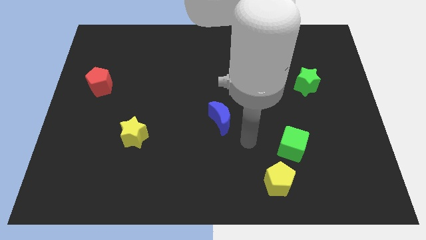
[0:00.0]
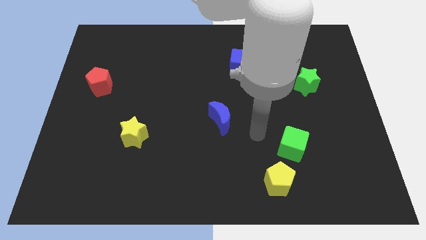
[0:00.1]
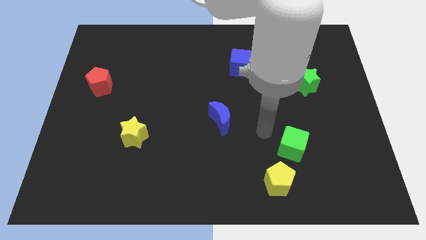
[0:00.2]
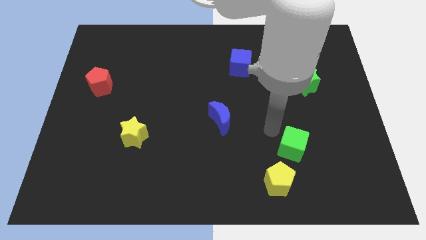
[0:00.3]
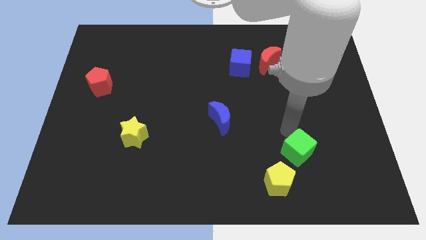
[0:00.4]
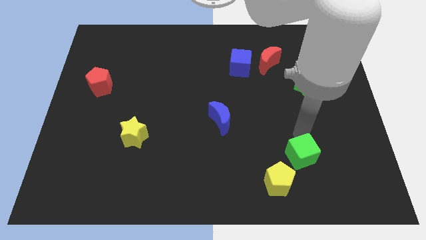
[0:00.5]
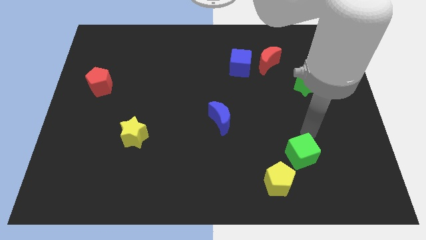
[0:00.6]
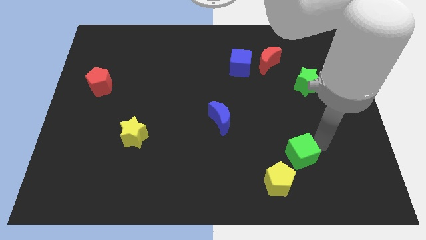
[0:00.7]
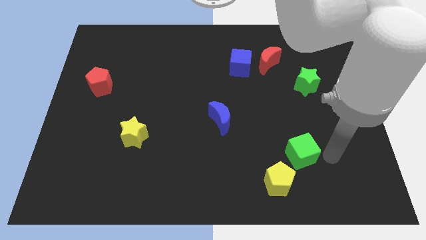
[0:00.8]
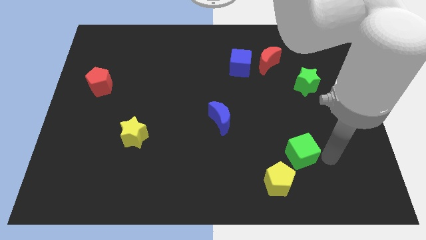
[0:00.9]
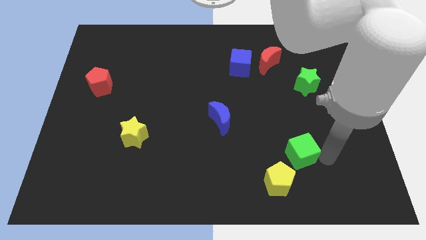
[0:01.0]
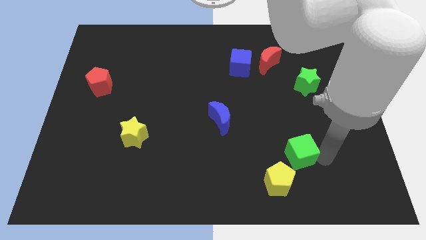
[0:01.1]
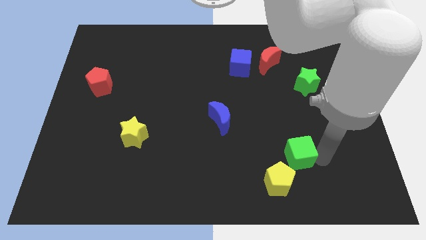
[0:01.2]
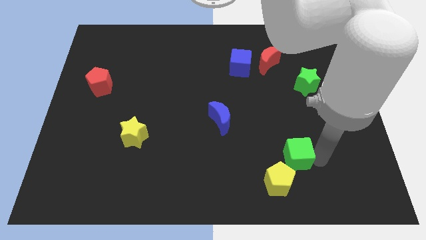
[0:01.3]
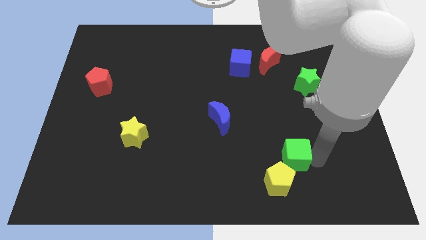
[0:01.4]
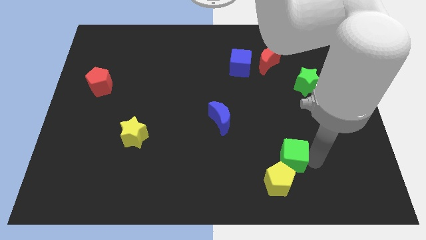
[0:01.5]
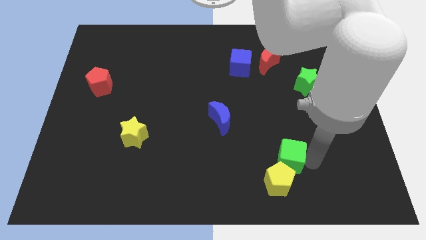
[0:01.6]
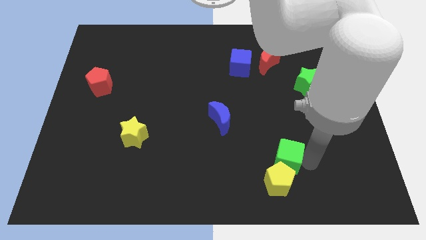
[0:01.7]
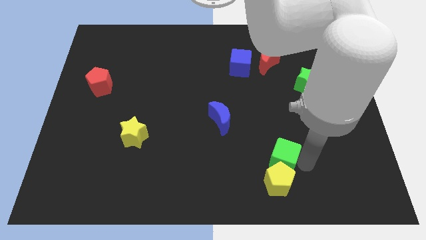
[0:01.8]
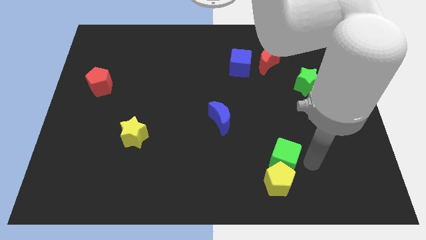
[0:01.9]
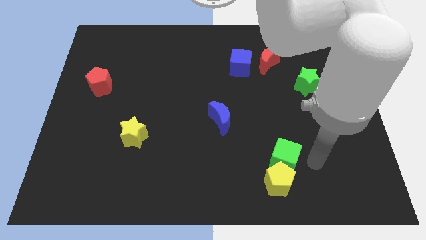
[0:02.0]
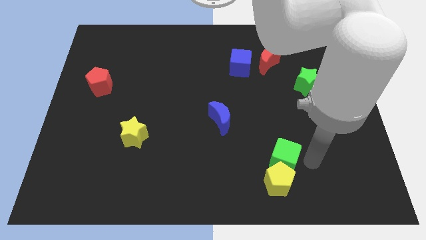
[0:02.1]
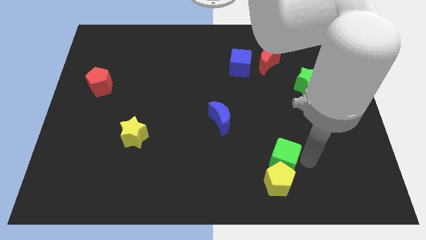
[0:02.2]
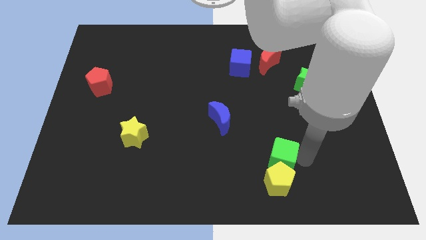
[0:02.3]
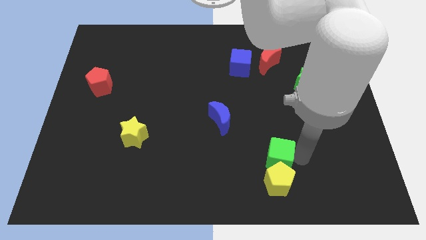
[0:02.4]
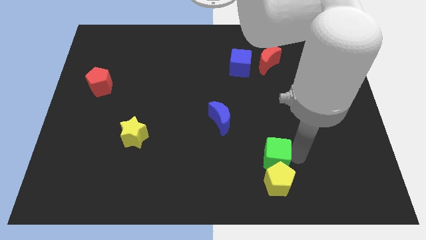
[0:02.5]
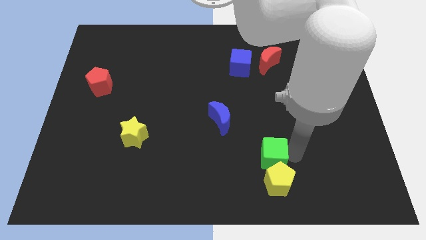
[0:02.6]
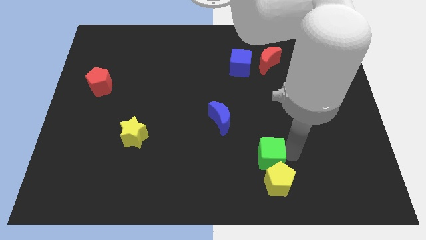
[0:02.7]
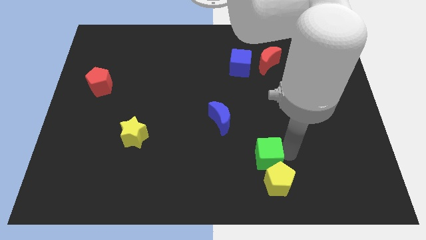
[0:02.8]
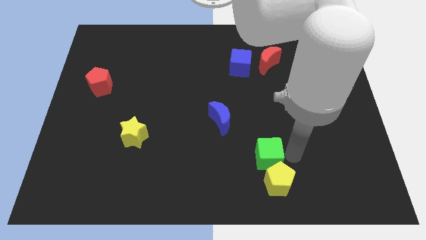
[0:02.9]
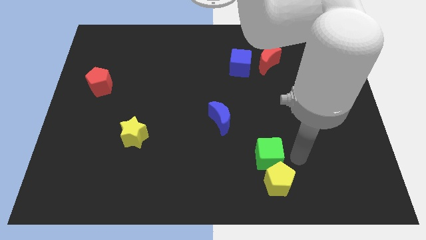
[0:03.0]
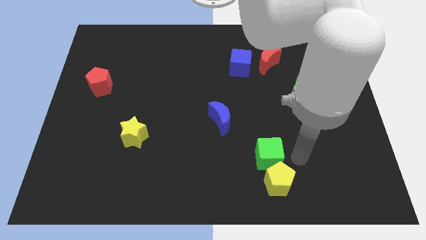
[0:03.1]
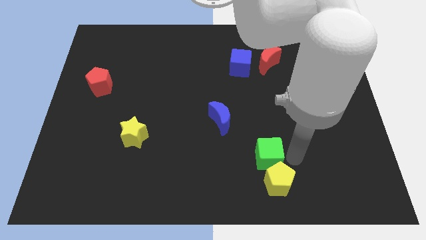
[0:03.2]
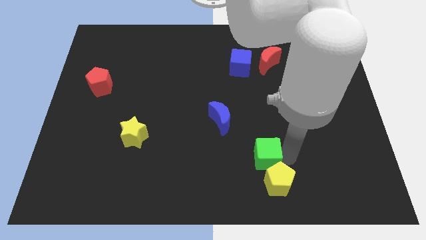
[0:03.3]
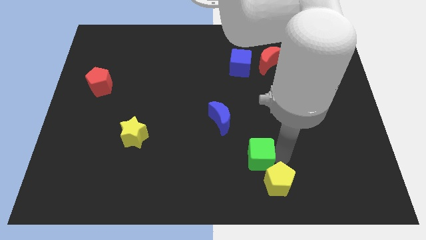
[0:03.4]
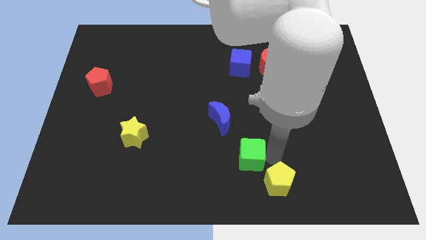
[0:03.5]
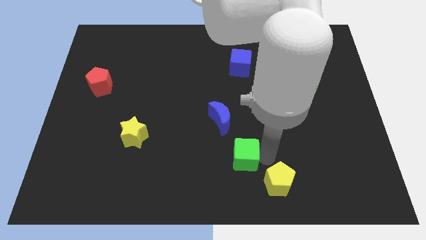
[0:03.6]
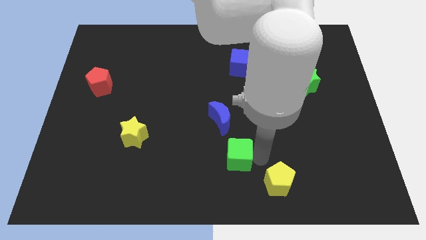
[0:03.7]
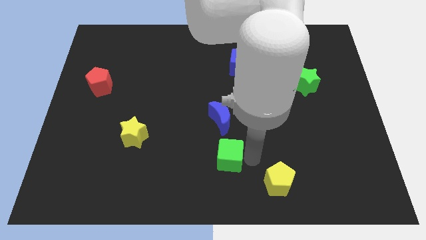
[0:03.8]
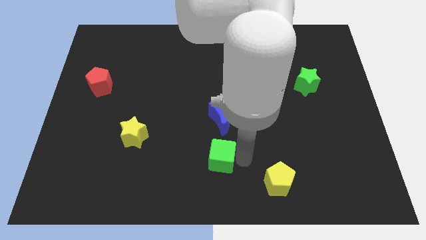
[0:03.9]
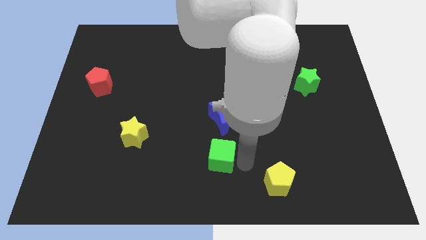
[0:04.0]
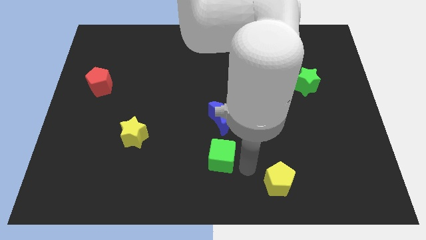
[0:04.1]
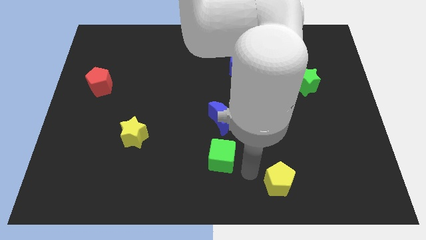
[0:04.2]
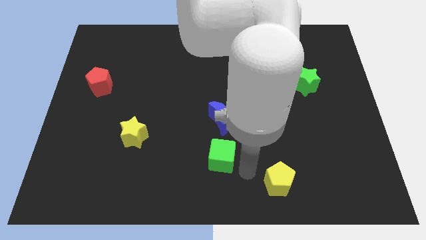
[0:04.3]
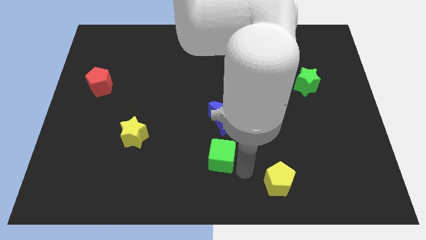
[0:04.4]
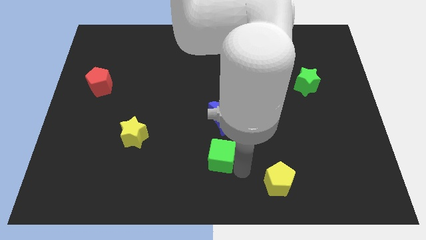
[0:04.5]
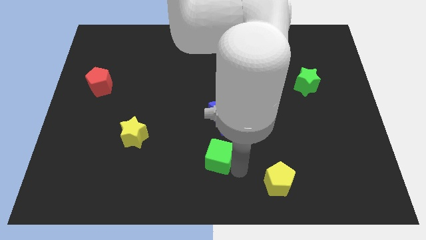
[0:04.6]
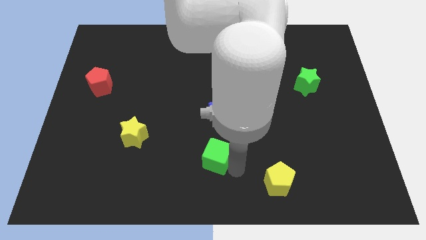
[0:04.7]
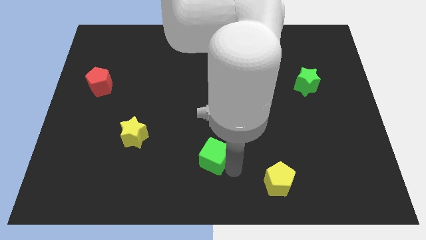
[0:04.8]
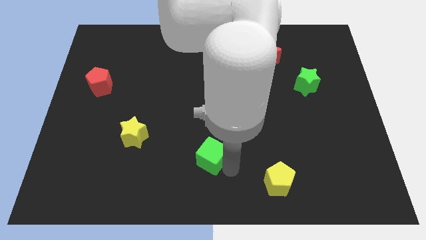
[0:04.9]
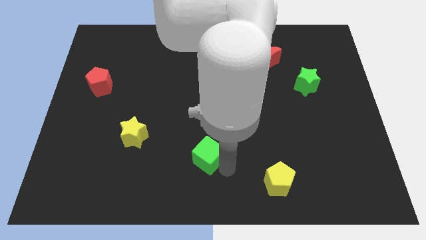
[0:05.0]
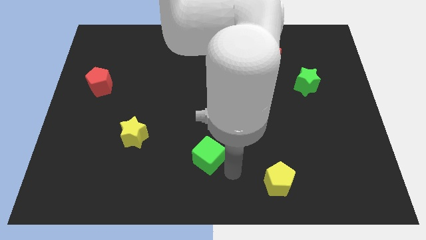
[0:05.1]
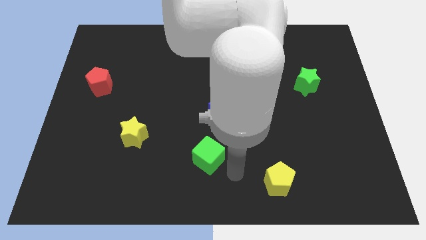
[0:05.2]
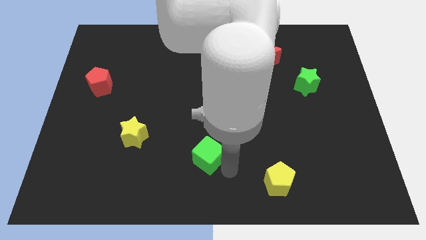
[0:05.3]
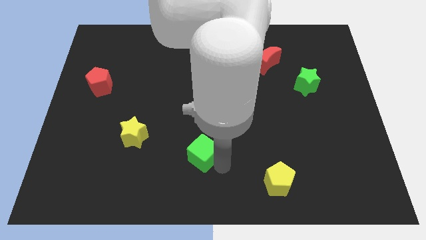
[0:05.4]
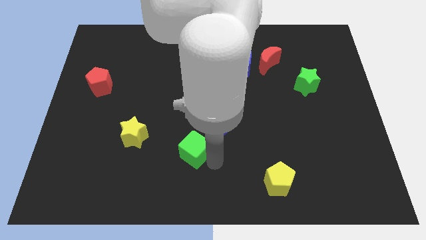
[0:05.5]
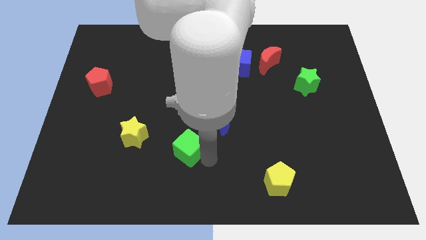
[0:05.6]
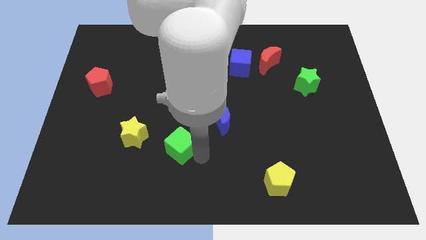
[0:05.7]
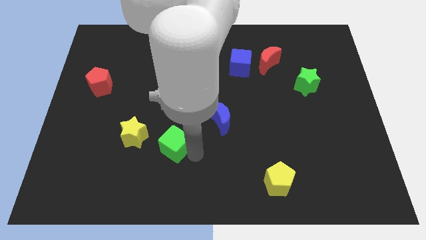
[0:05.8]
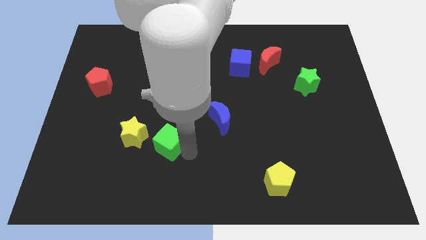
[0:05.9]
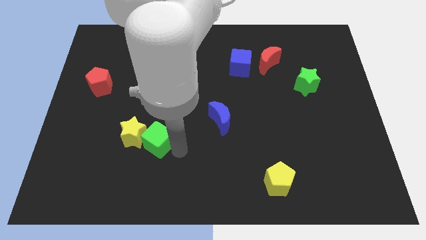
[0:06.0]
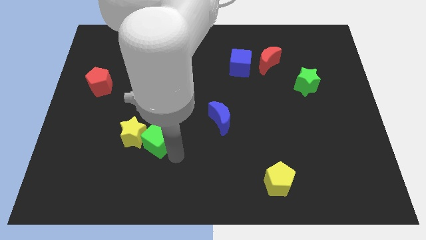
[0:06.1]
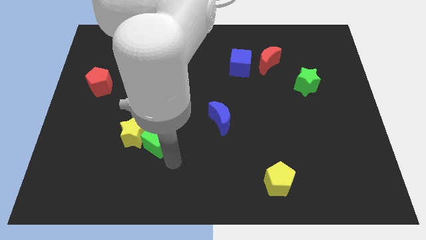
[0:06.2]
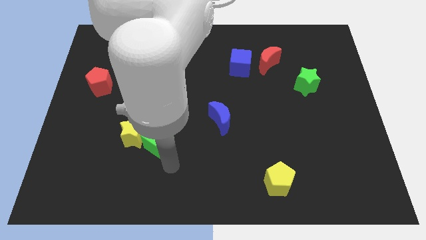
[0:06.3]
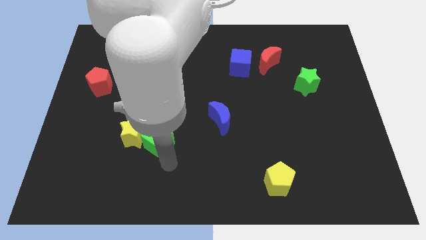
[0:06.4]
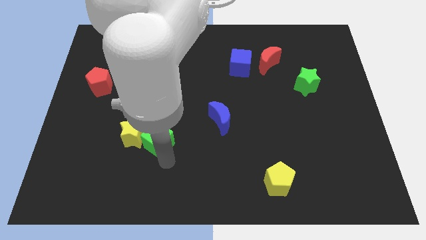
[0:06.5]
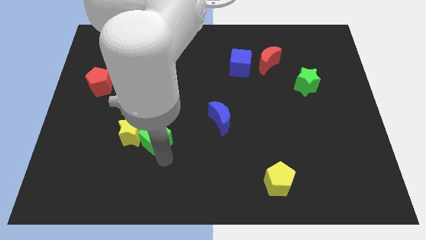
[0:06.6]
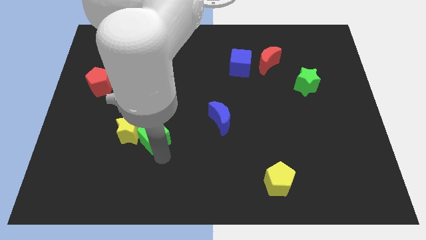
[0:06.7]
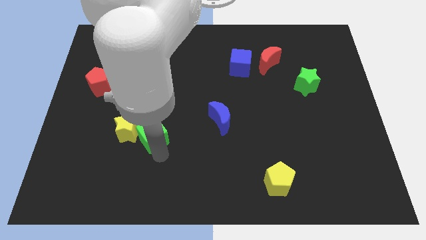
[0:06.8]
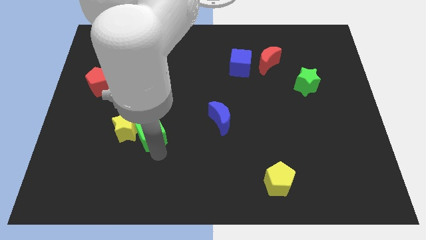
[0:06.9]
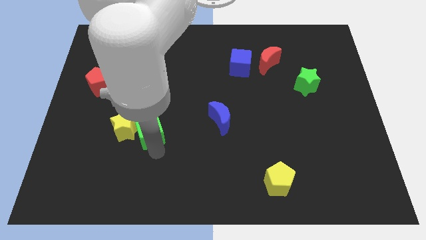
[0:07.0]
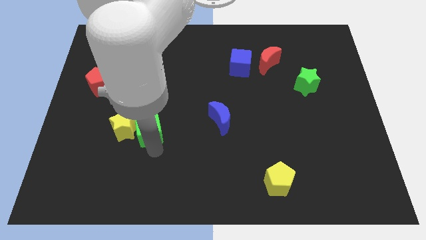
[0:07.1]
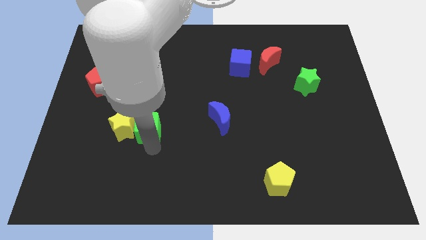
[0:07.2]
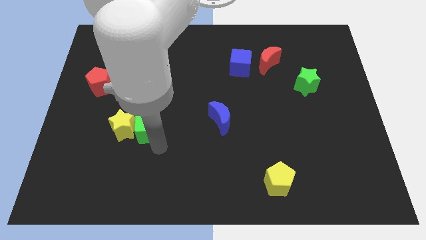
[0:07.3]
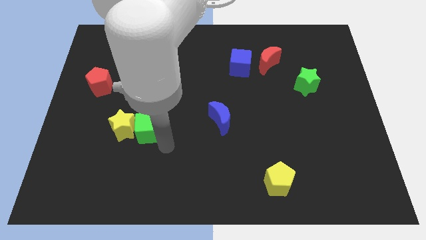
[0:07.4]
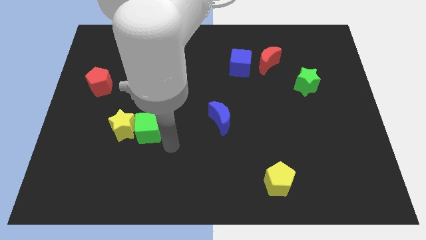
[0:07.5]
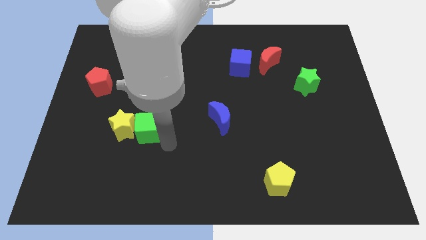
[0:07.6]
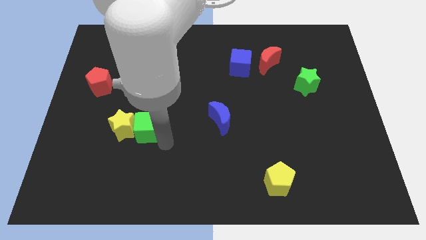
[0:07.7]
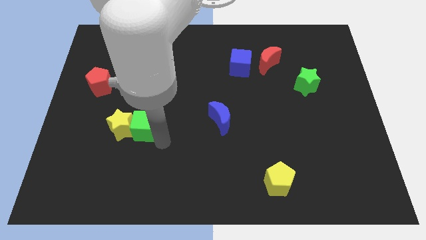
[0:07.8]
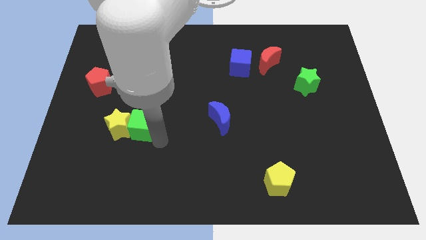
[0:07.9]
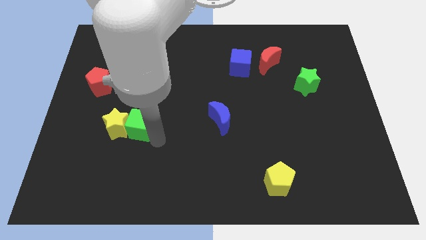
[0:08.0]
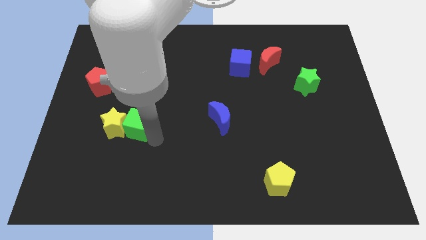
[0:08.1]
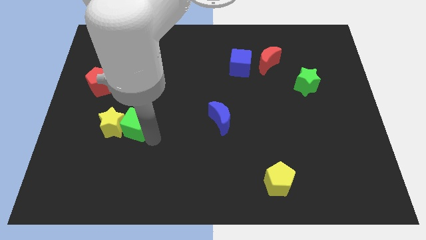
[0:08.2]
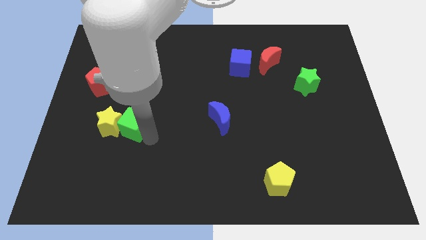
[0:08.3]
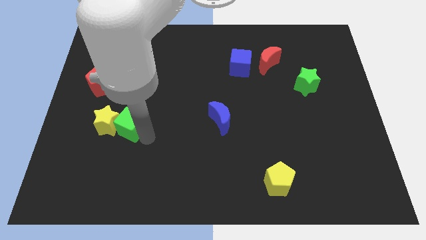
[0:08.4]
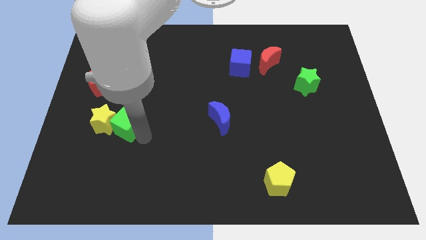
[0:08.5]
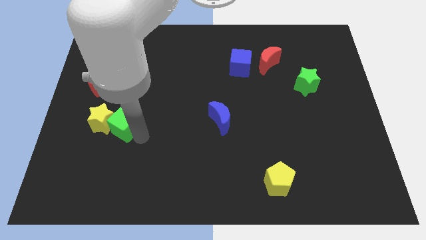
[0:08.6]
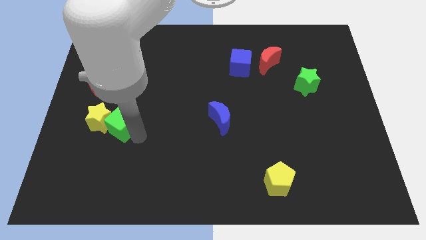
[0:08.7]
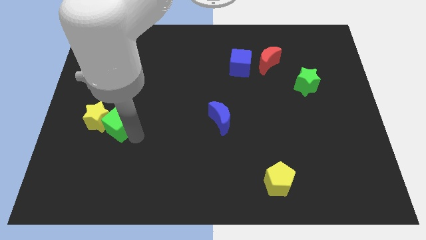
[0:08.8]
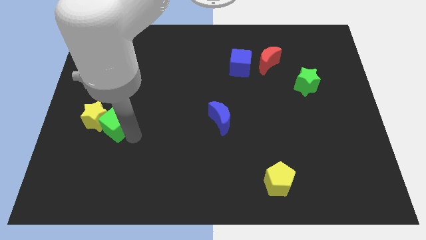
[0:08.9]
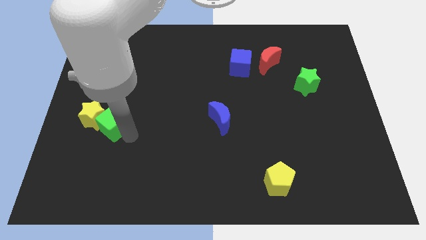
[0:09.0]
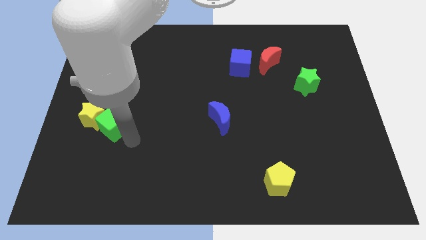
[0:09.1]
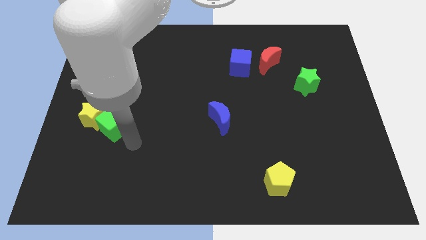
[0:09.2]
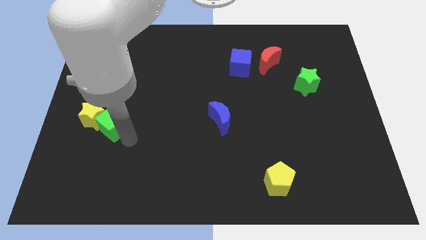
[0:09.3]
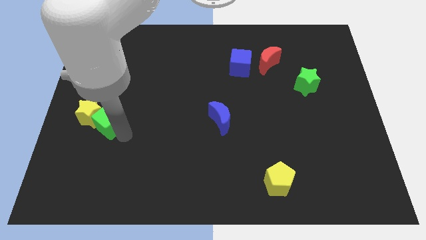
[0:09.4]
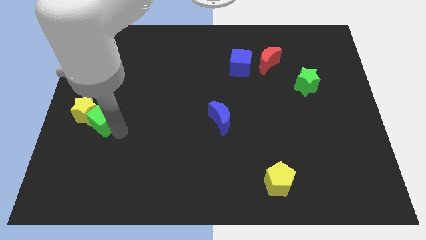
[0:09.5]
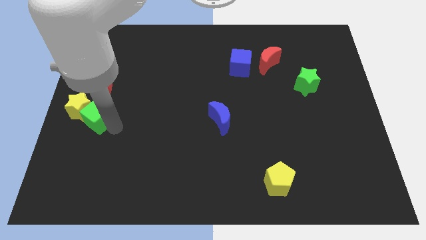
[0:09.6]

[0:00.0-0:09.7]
slide the green cube to the center left
